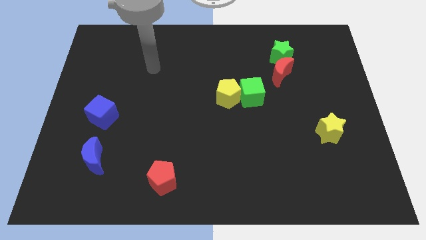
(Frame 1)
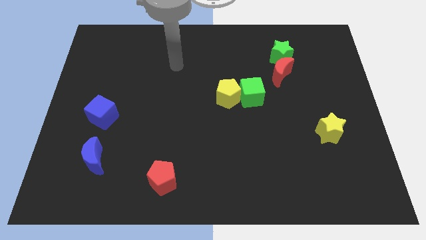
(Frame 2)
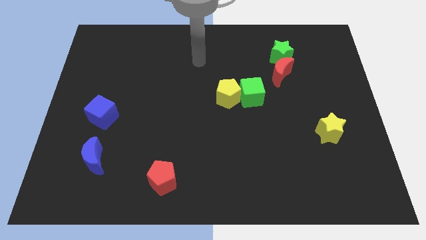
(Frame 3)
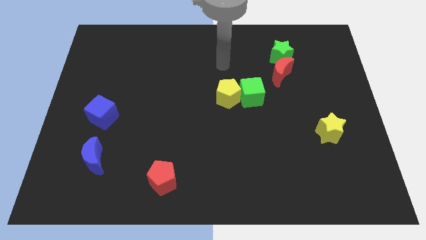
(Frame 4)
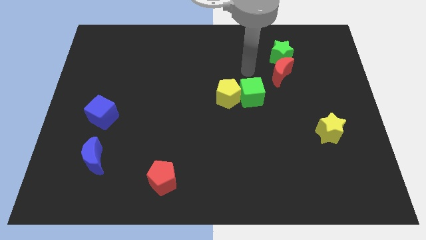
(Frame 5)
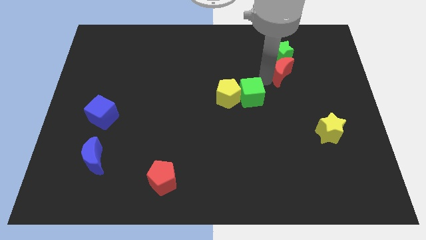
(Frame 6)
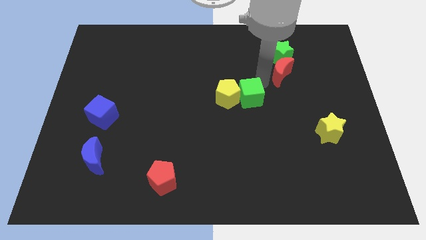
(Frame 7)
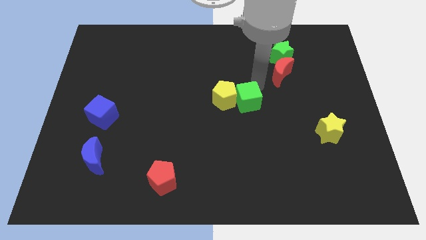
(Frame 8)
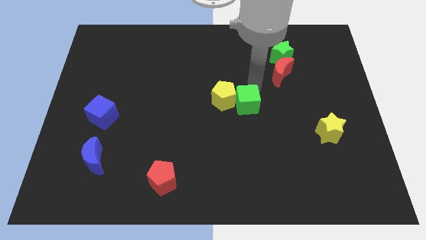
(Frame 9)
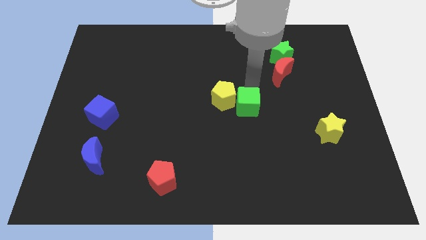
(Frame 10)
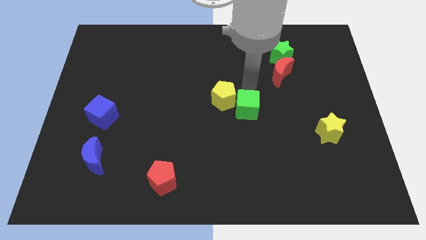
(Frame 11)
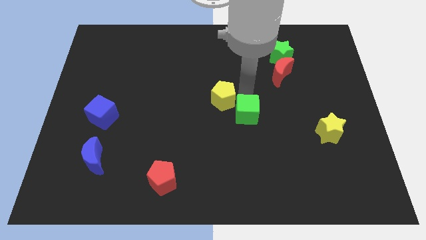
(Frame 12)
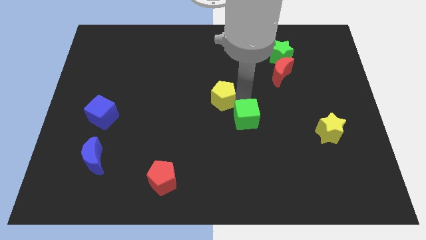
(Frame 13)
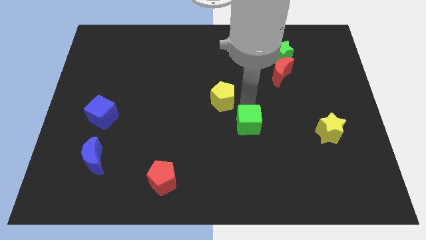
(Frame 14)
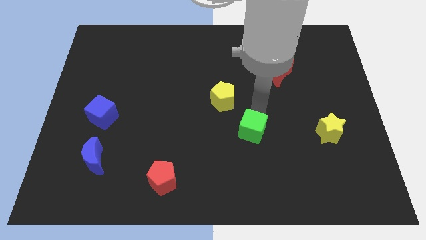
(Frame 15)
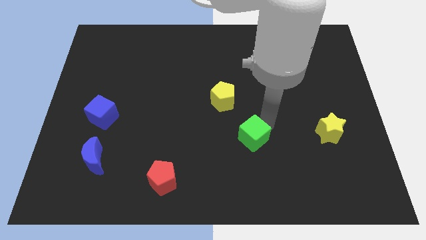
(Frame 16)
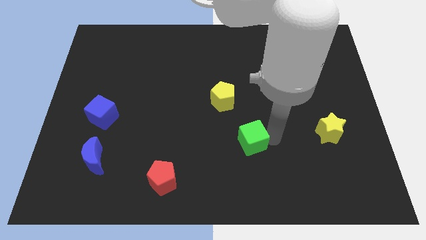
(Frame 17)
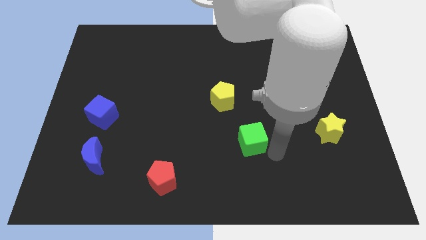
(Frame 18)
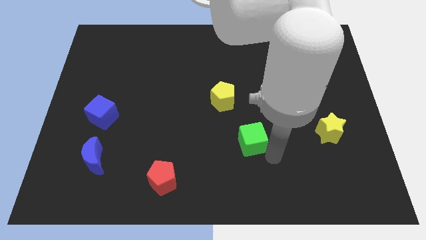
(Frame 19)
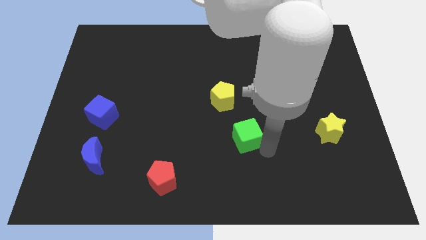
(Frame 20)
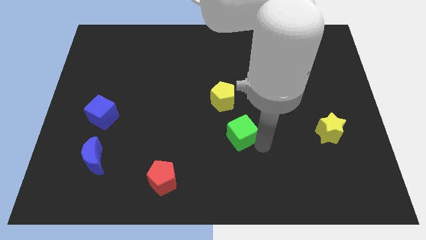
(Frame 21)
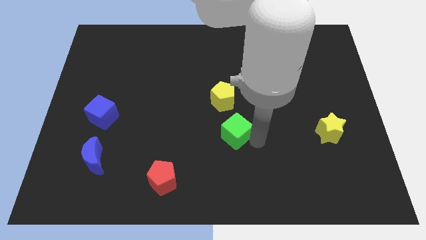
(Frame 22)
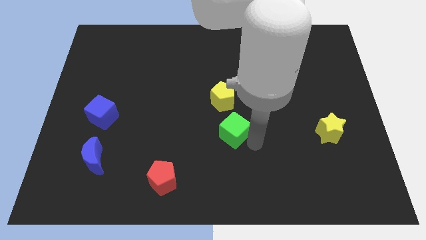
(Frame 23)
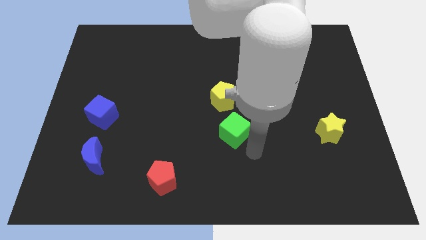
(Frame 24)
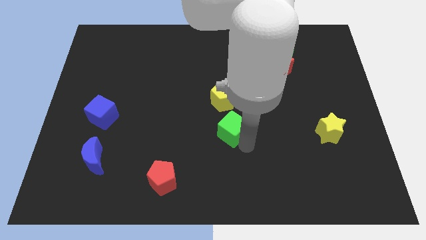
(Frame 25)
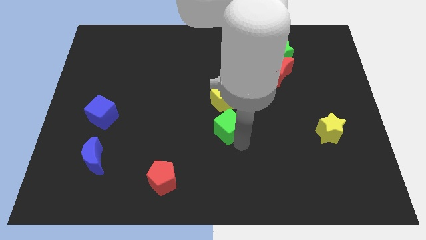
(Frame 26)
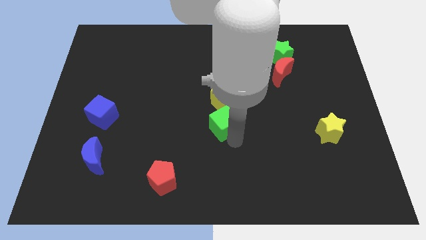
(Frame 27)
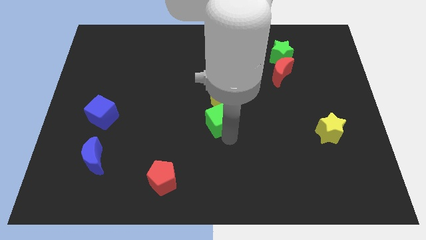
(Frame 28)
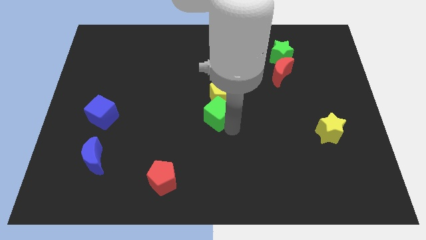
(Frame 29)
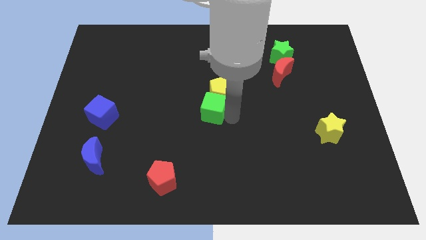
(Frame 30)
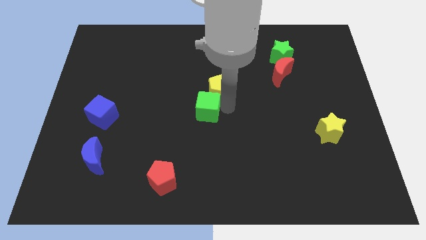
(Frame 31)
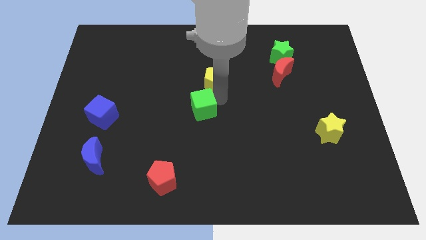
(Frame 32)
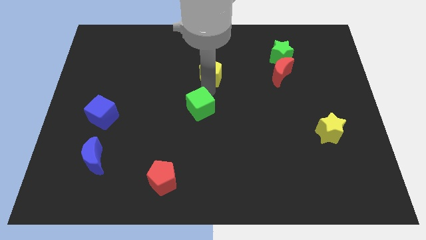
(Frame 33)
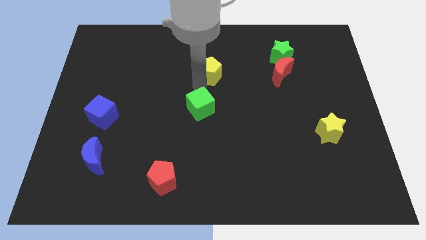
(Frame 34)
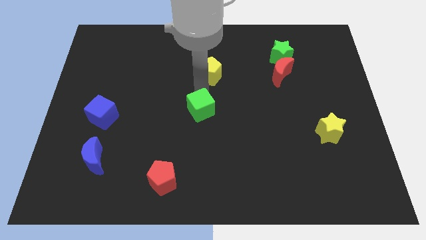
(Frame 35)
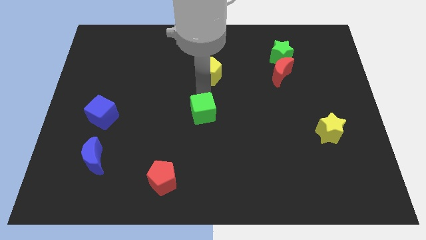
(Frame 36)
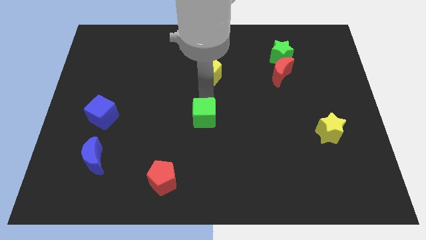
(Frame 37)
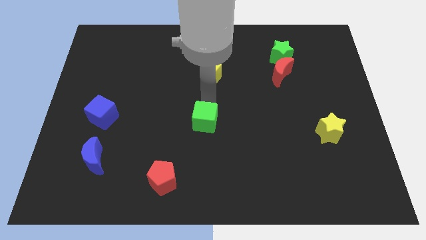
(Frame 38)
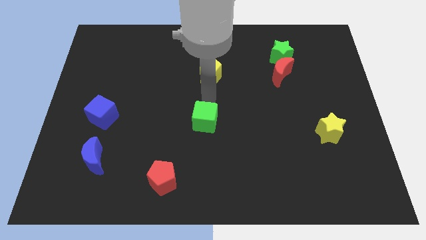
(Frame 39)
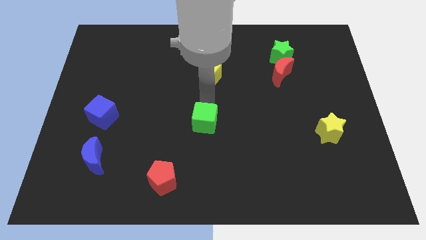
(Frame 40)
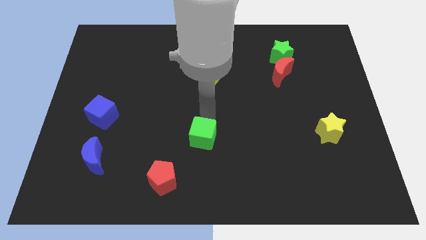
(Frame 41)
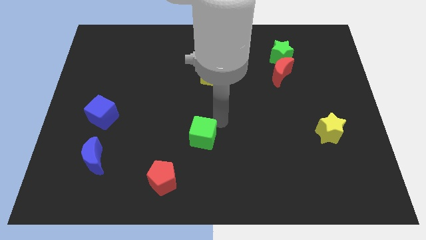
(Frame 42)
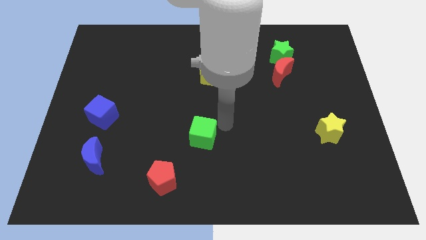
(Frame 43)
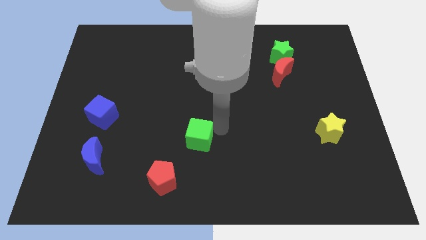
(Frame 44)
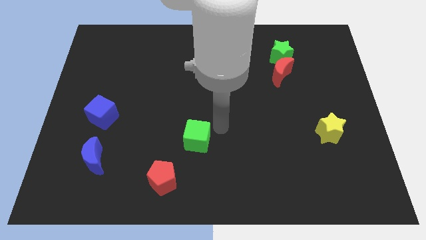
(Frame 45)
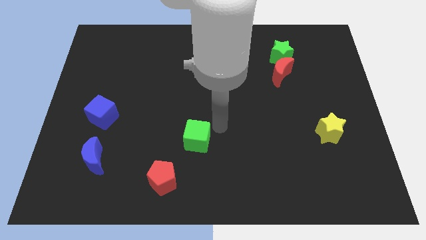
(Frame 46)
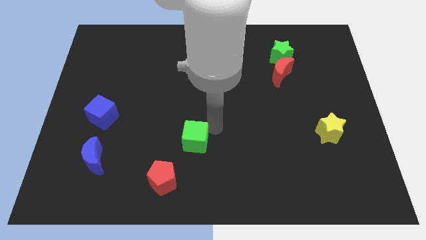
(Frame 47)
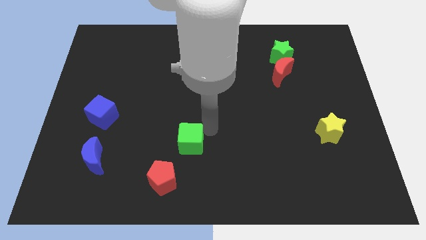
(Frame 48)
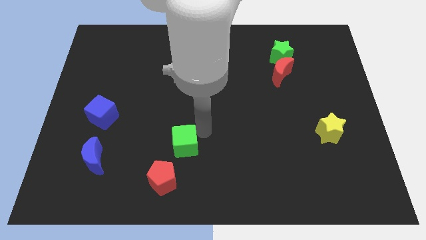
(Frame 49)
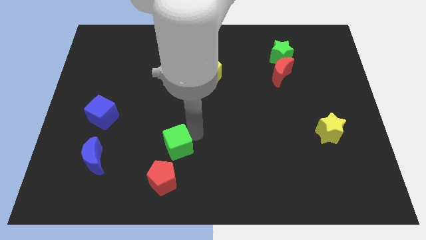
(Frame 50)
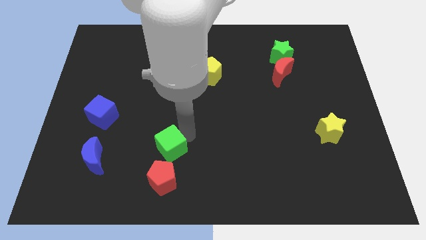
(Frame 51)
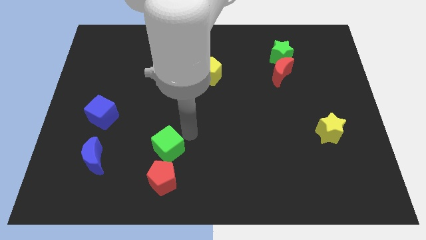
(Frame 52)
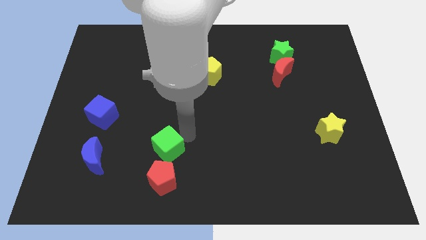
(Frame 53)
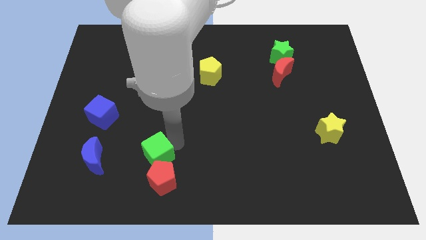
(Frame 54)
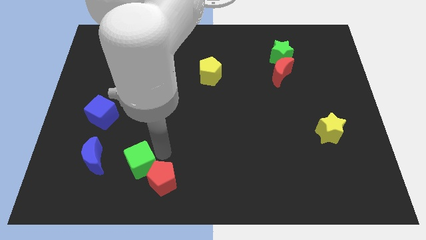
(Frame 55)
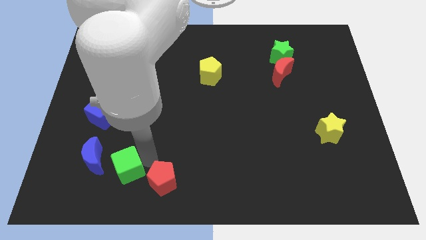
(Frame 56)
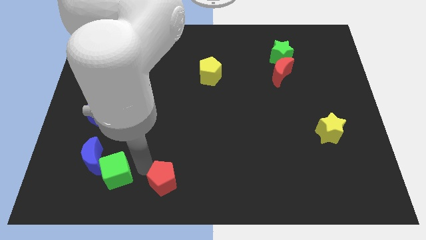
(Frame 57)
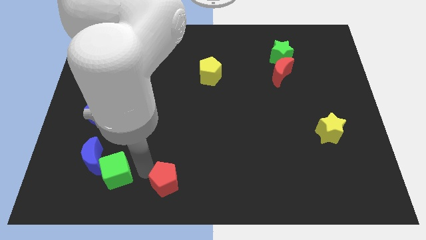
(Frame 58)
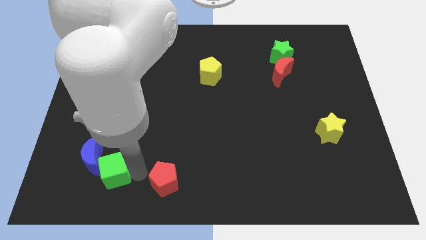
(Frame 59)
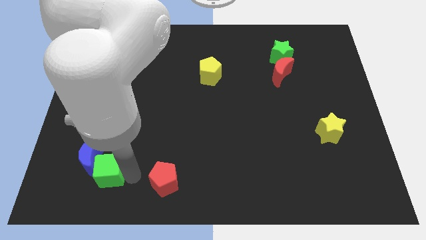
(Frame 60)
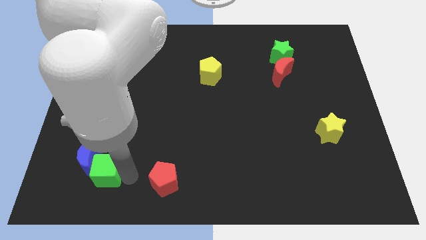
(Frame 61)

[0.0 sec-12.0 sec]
slide the green cube below the blue cube

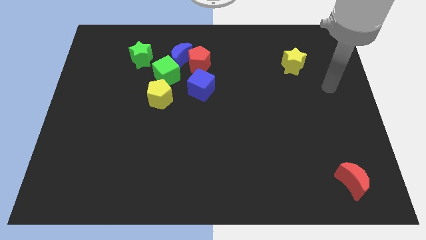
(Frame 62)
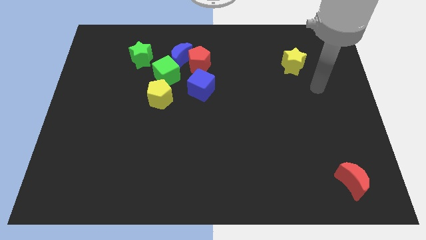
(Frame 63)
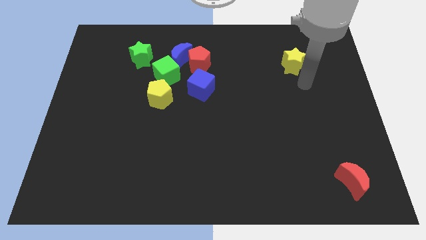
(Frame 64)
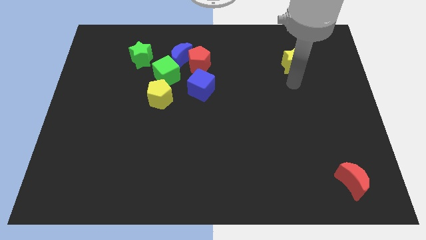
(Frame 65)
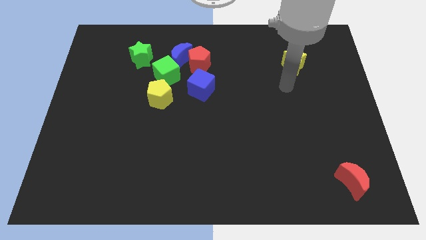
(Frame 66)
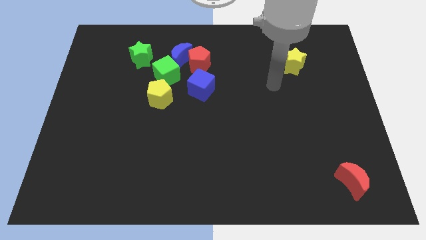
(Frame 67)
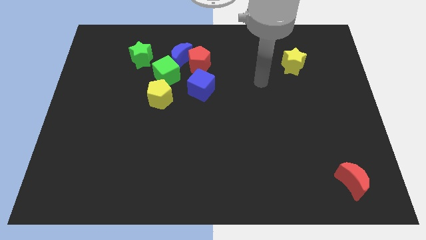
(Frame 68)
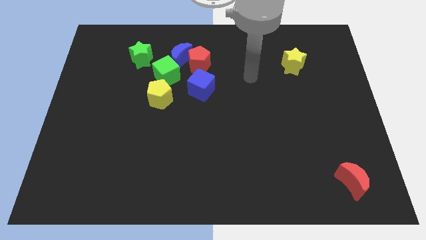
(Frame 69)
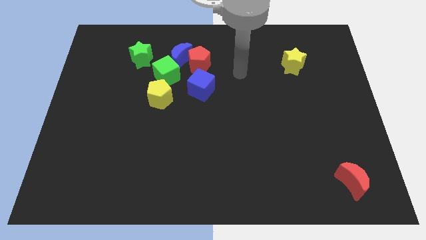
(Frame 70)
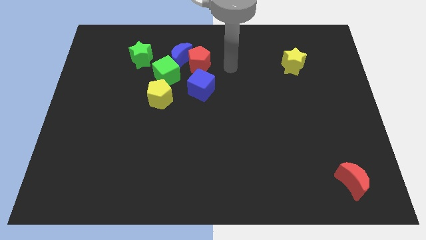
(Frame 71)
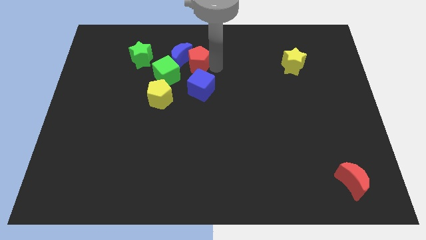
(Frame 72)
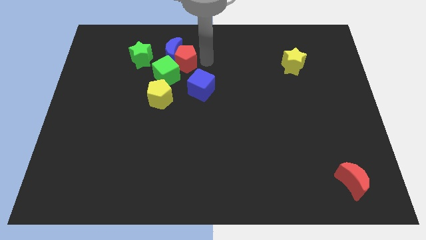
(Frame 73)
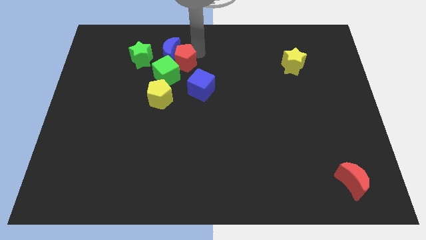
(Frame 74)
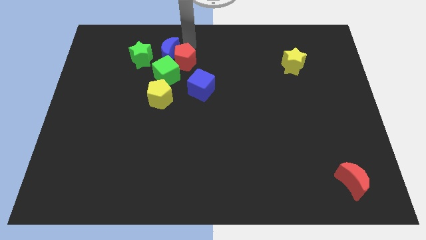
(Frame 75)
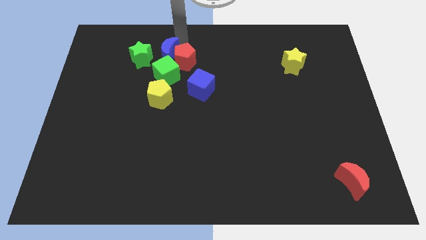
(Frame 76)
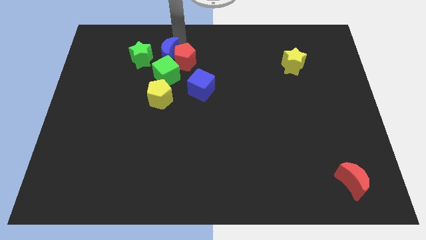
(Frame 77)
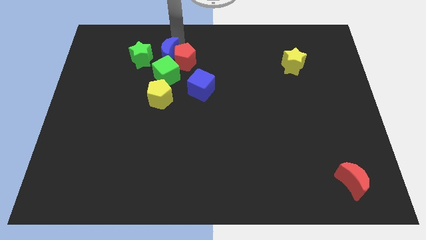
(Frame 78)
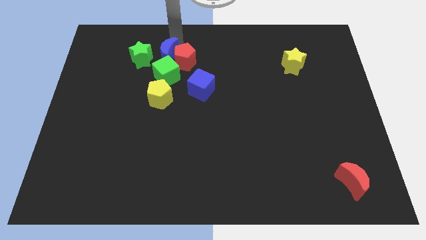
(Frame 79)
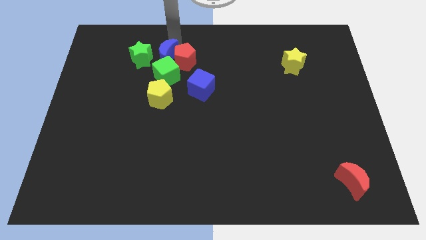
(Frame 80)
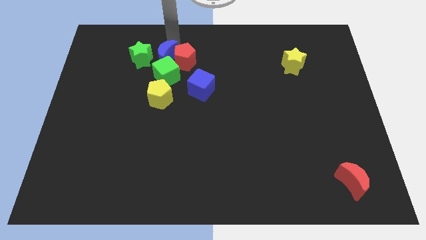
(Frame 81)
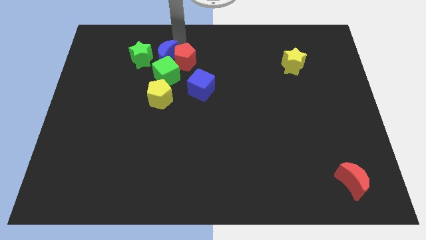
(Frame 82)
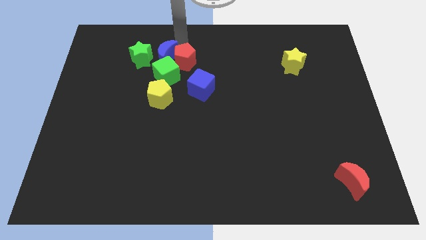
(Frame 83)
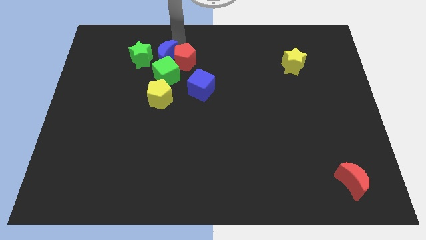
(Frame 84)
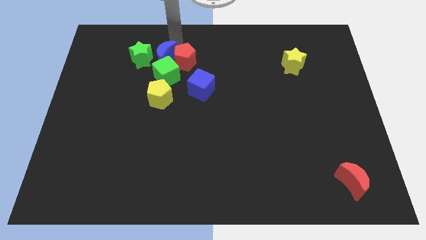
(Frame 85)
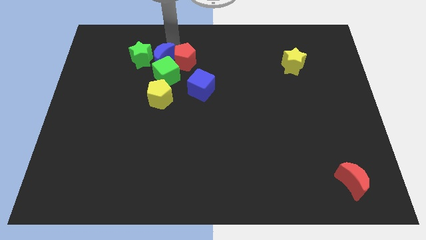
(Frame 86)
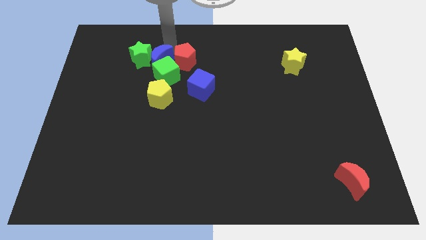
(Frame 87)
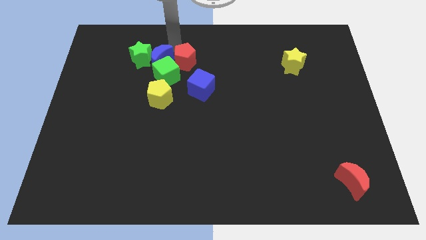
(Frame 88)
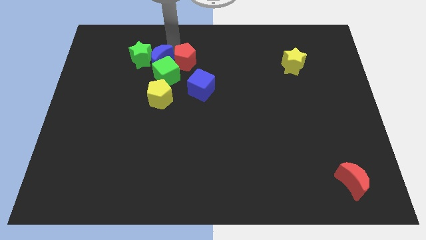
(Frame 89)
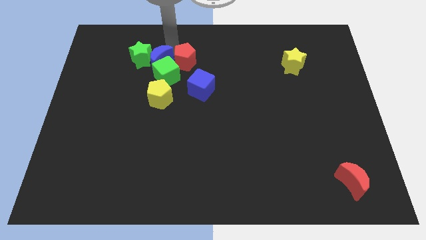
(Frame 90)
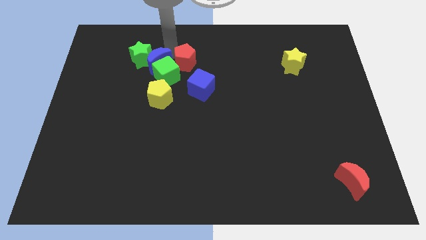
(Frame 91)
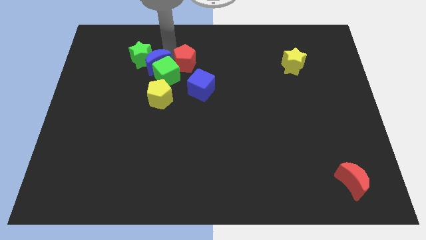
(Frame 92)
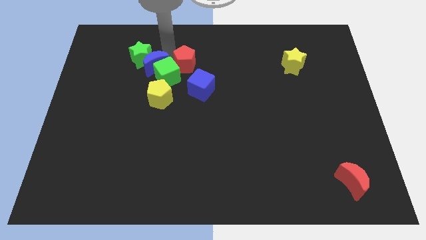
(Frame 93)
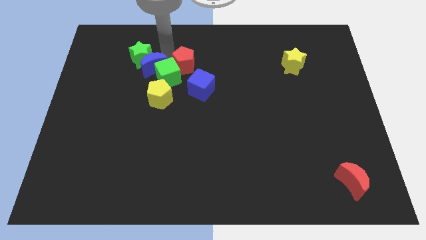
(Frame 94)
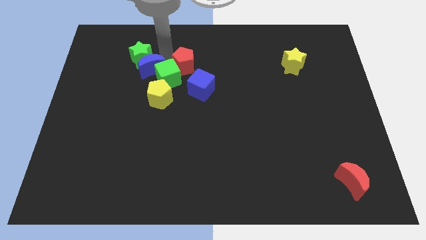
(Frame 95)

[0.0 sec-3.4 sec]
put the blue moon to the top left side of the yellow pentagon
